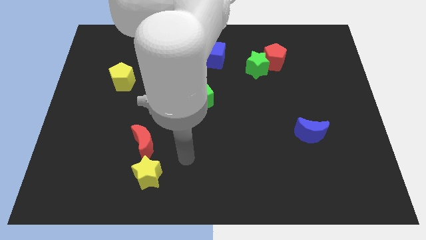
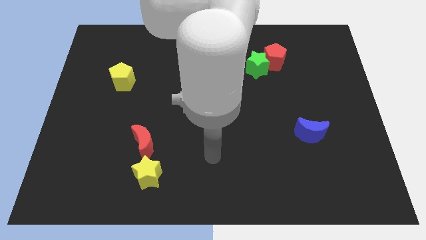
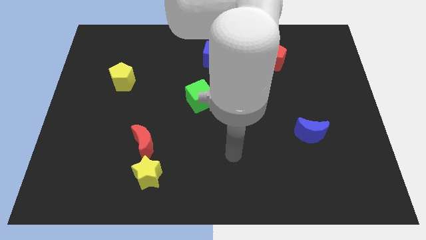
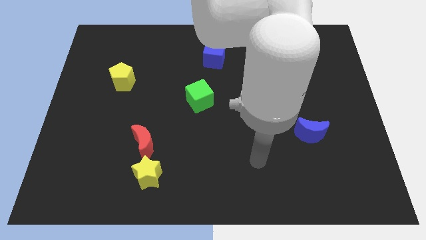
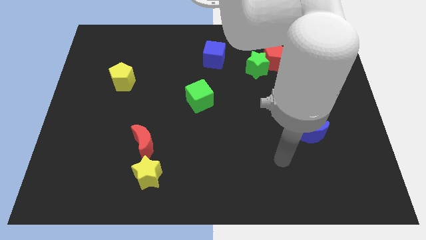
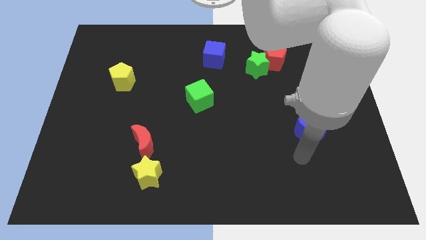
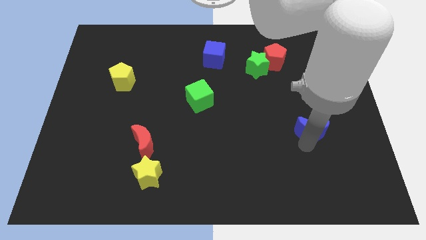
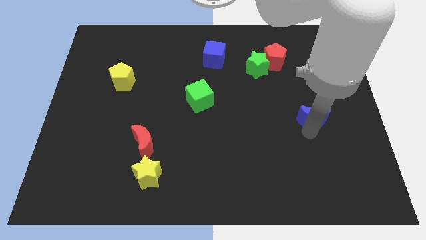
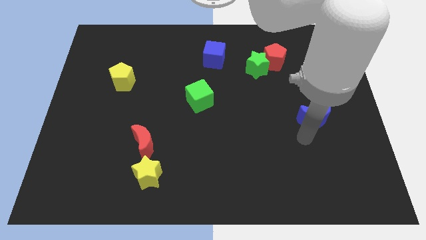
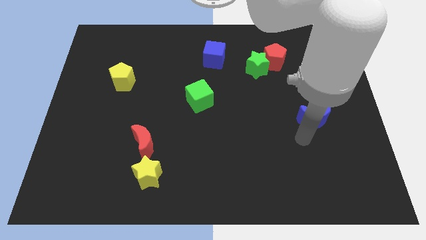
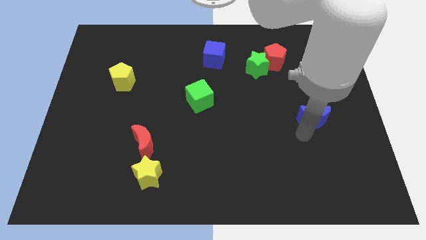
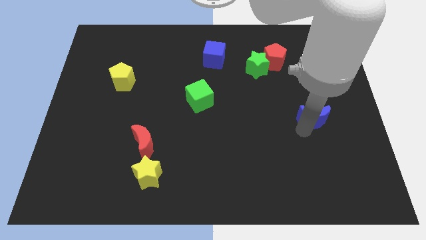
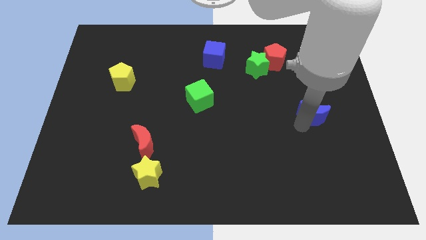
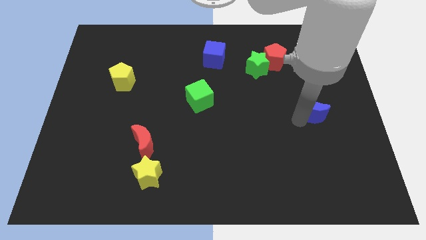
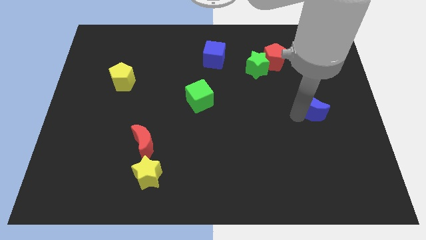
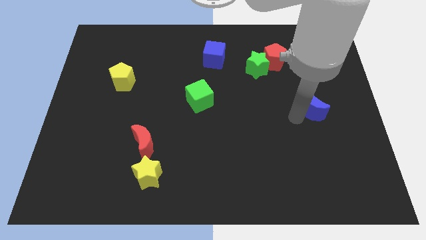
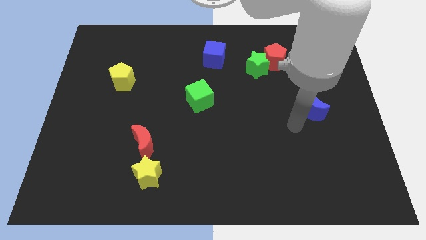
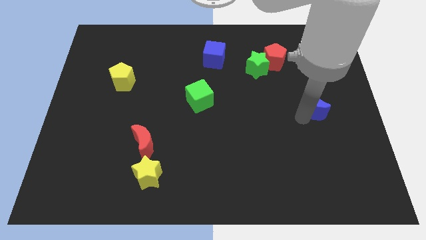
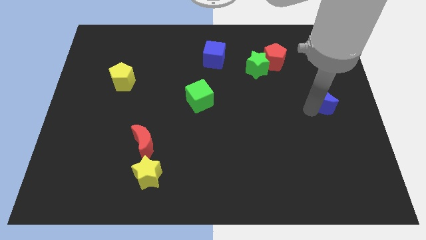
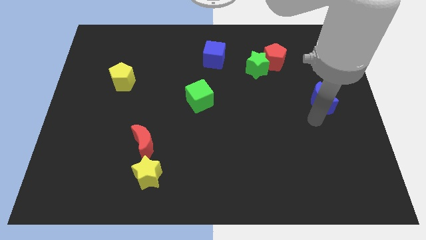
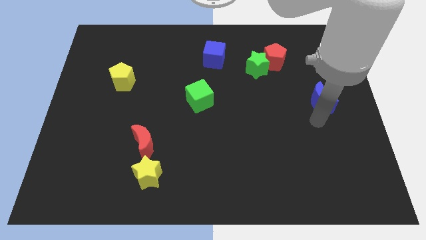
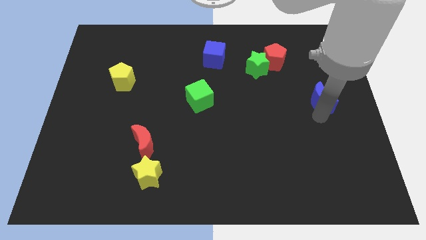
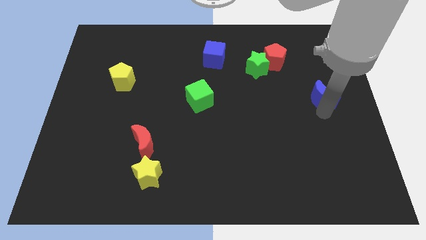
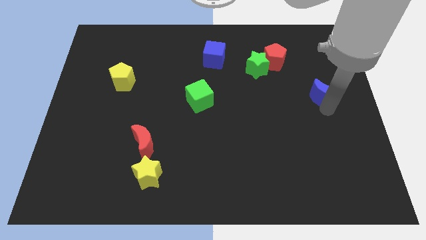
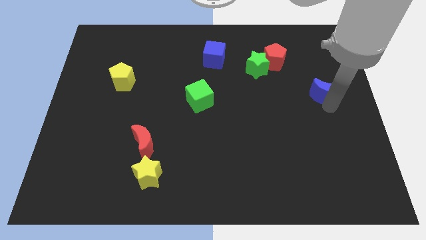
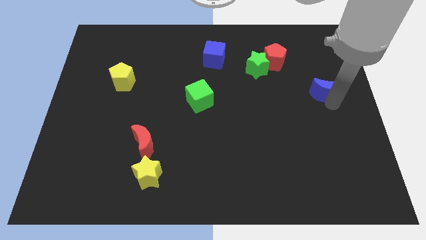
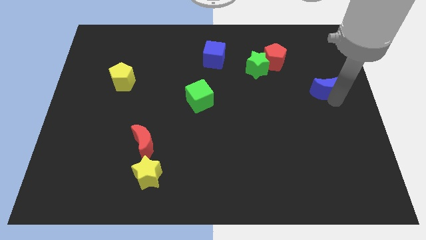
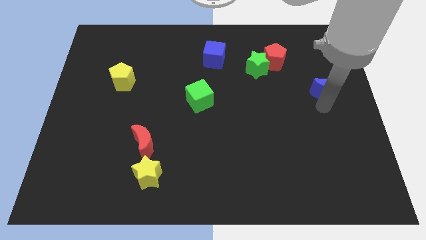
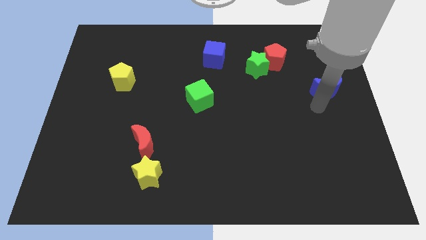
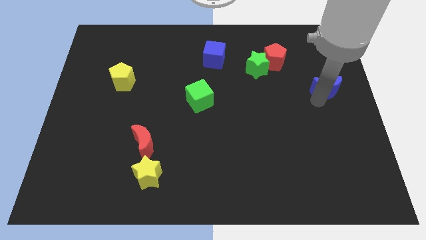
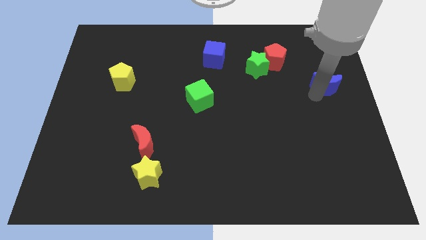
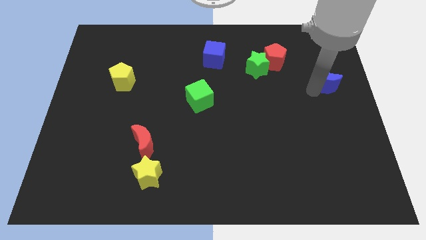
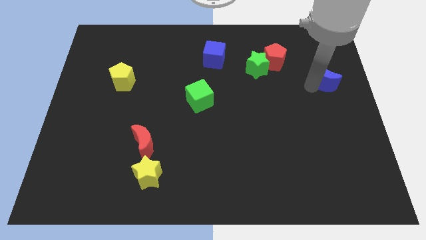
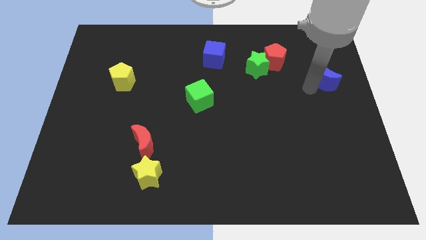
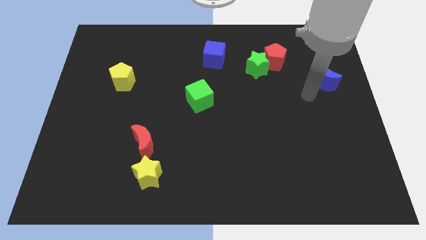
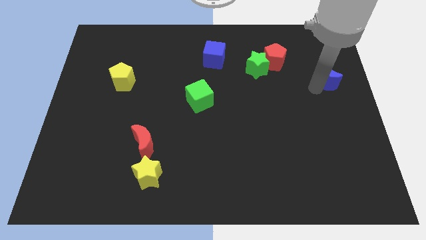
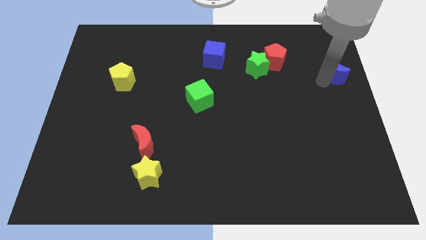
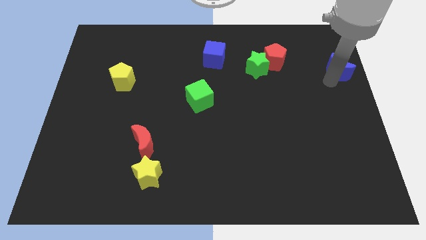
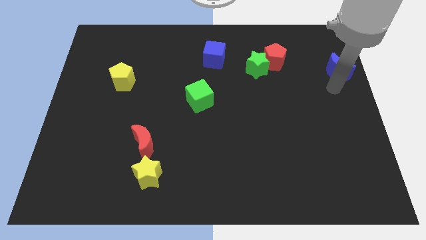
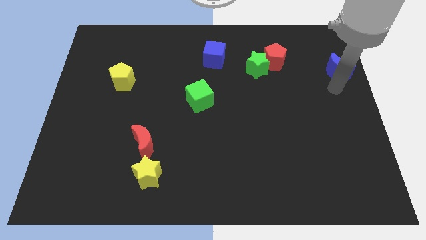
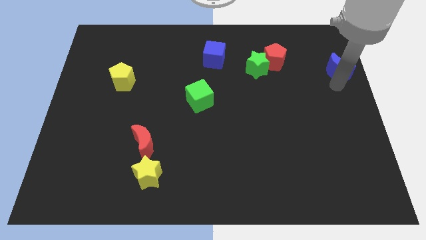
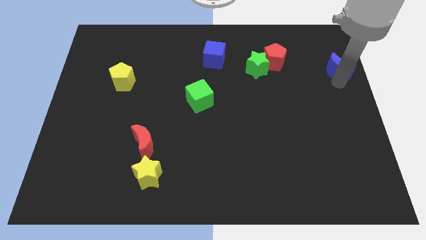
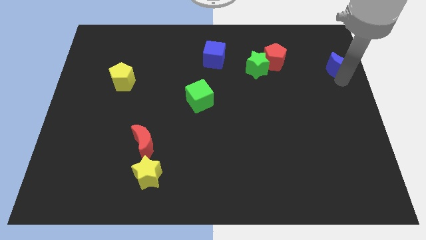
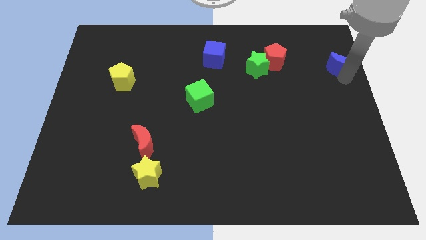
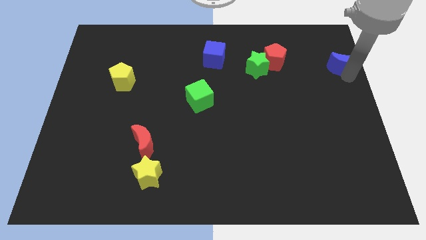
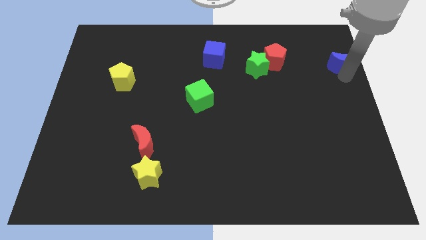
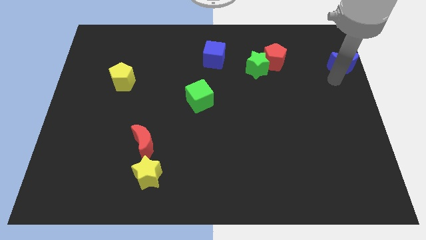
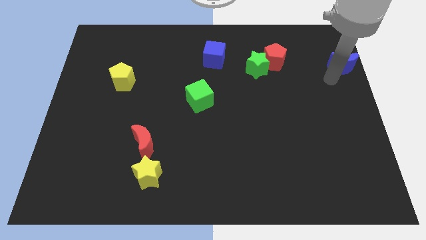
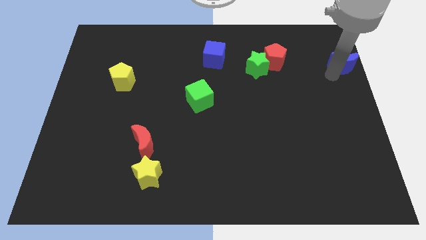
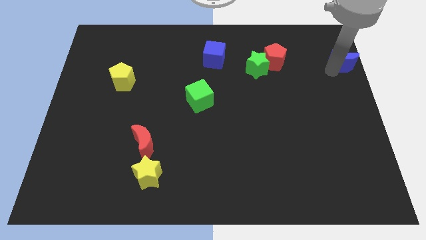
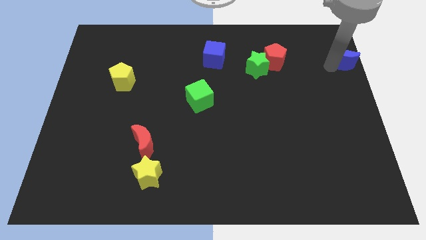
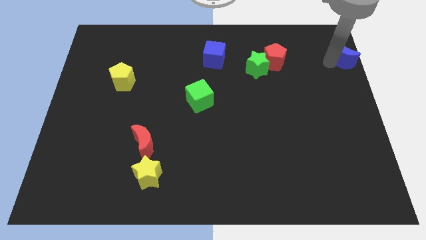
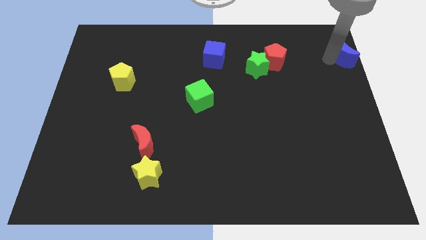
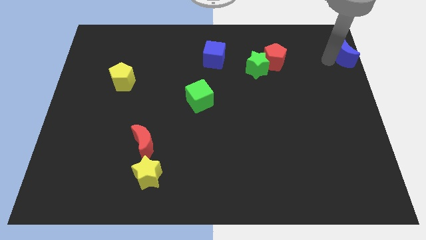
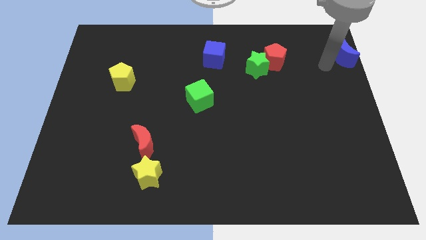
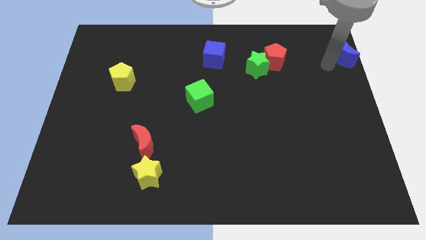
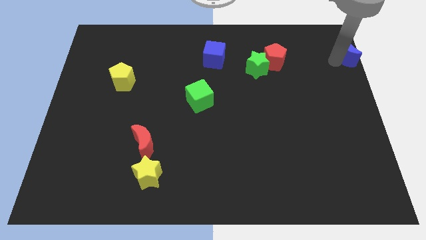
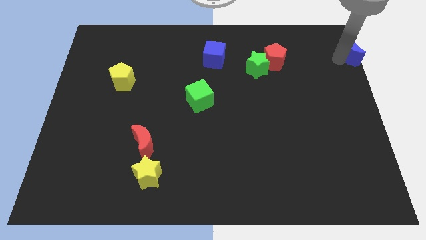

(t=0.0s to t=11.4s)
slide the blue moon to the upper right corner

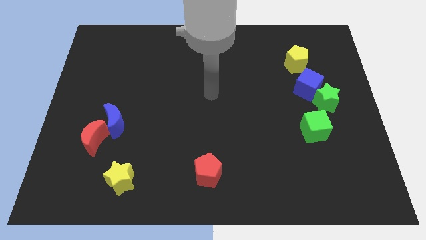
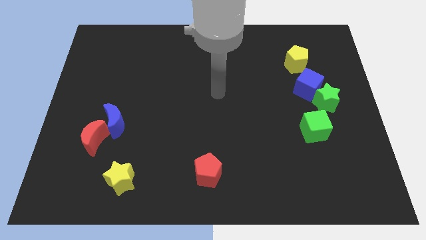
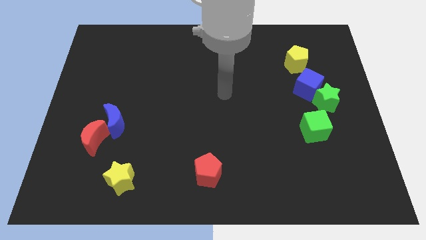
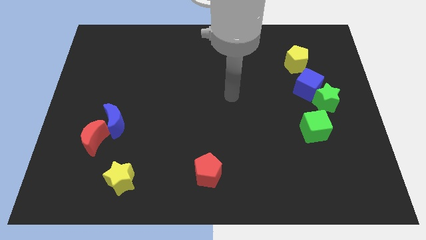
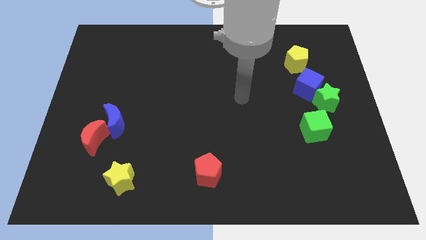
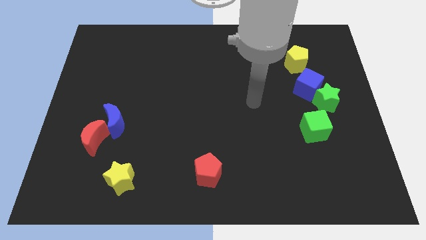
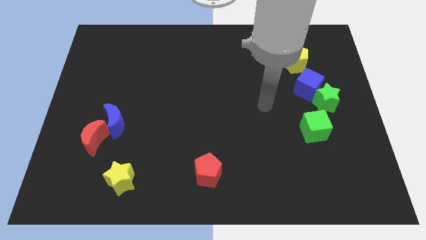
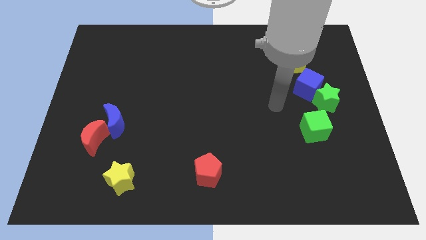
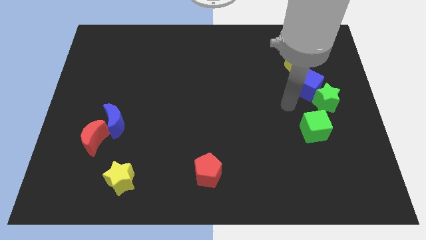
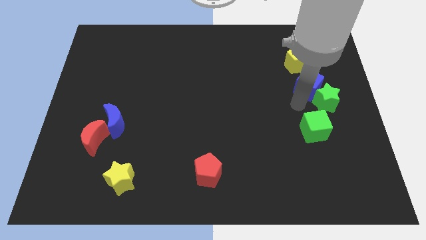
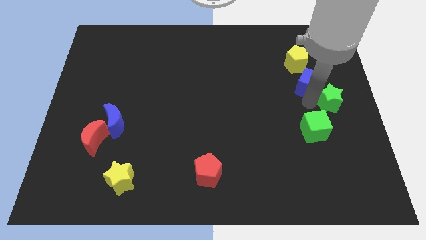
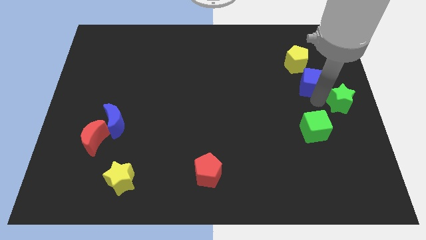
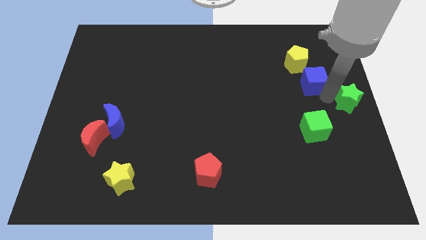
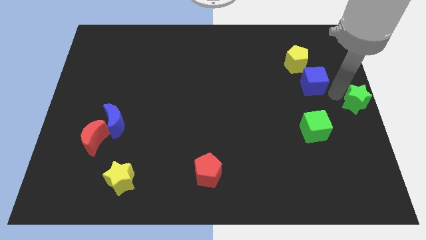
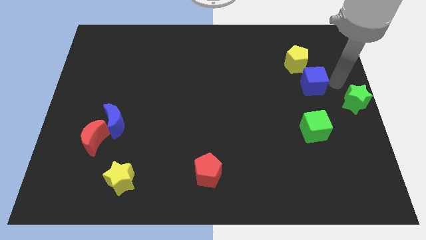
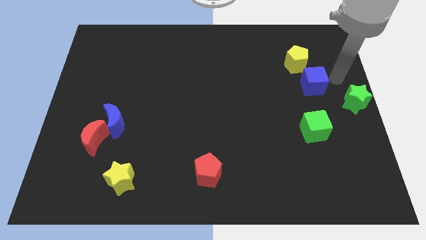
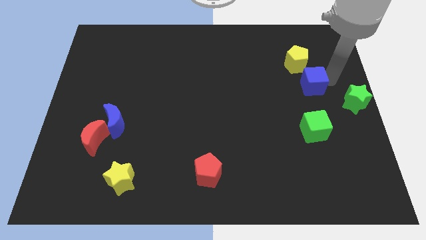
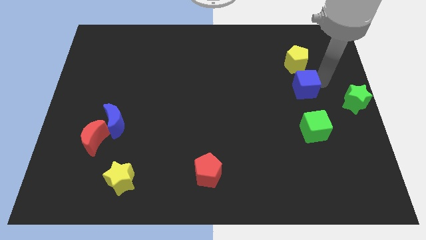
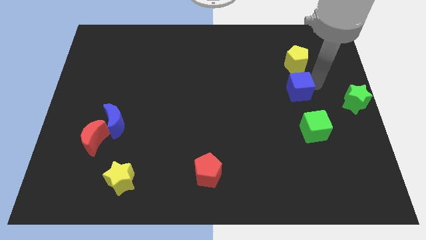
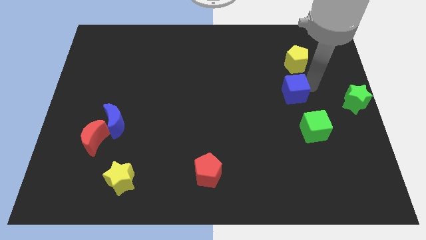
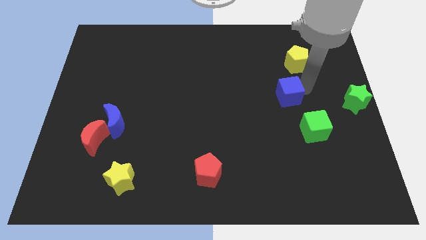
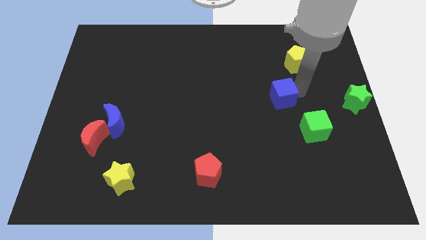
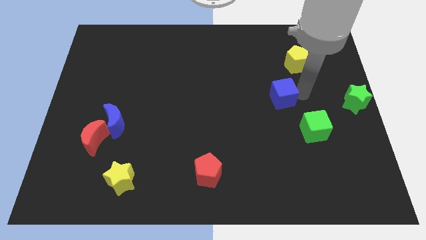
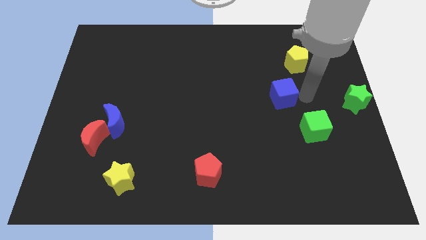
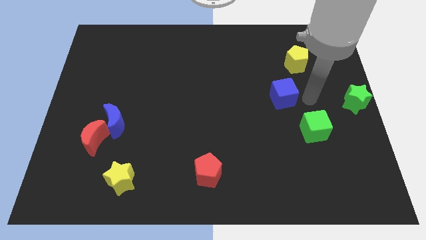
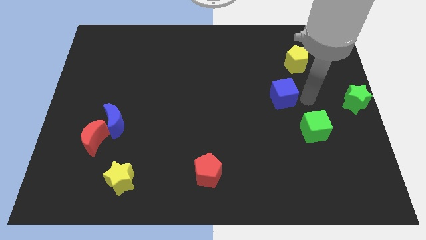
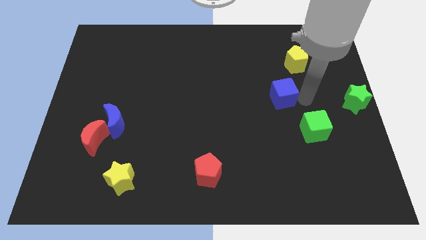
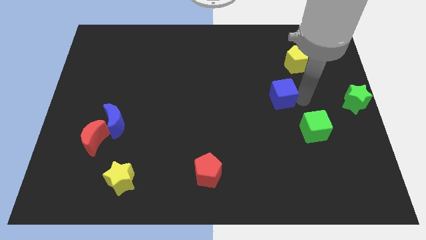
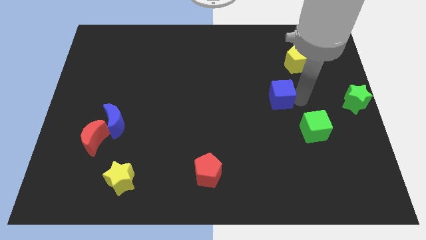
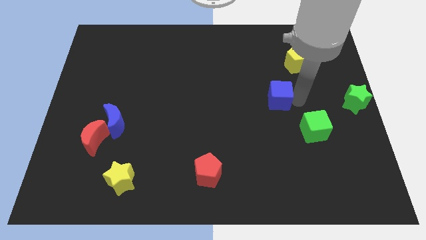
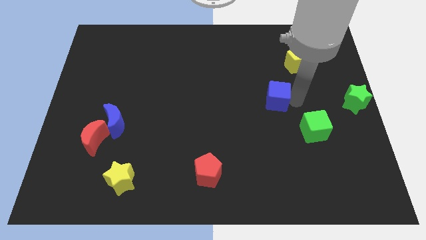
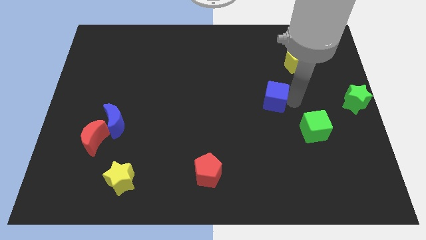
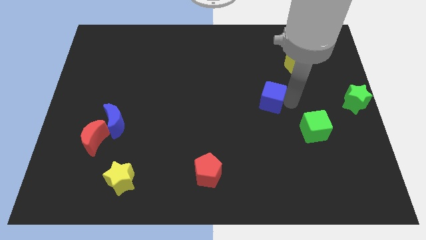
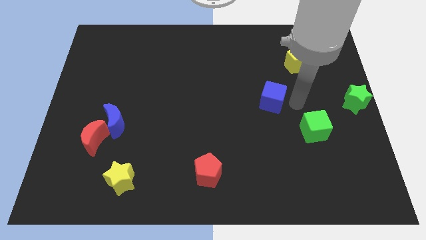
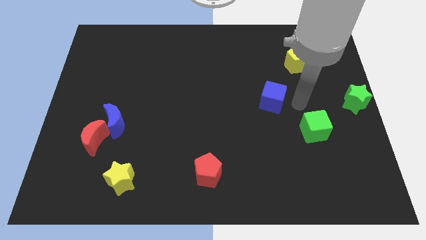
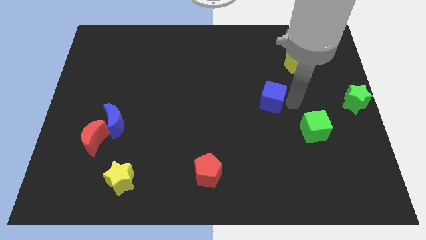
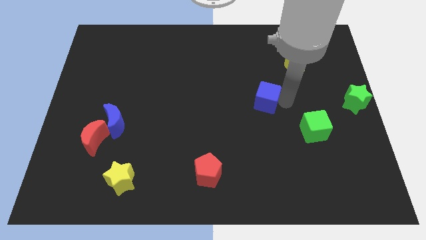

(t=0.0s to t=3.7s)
slide the blue cube to the middle of the board
